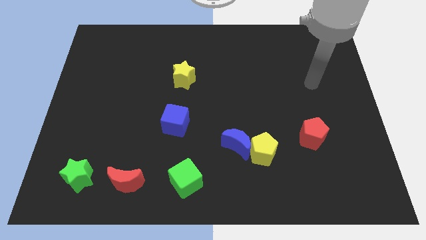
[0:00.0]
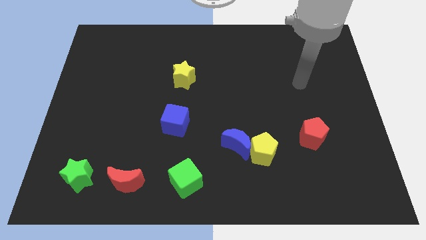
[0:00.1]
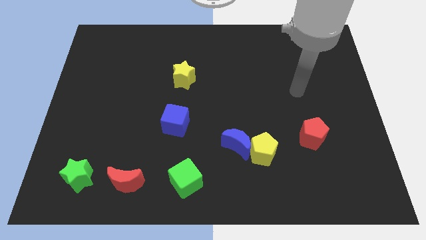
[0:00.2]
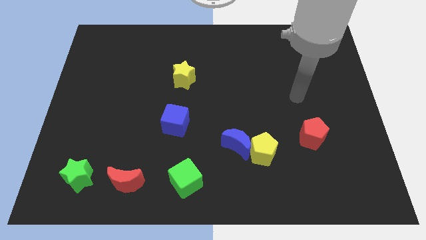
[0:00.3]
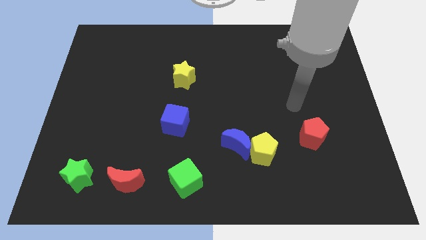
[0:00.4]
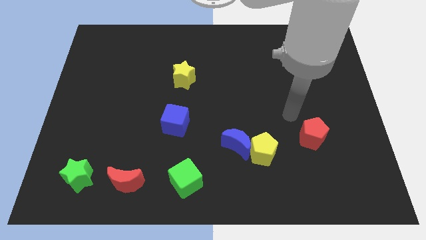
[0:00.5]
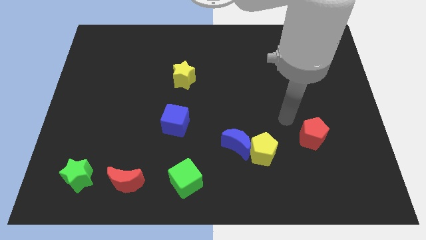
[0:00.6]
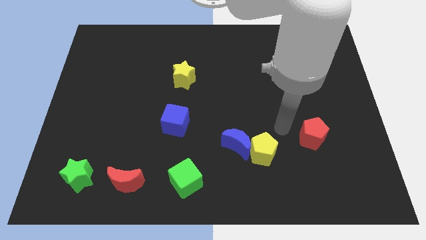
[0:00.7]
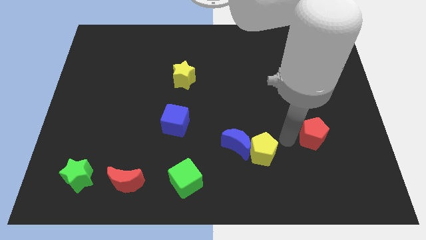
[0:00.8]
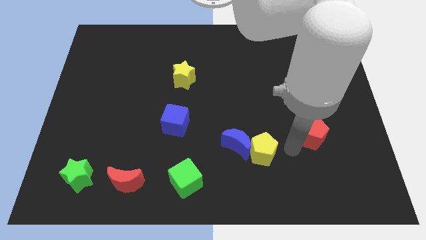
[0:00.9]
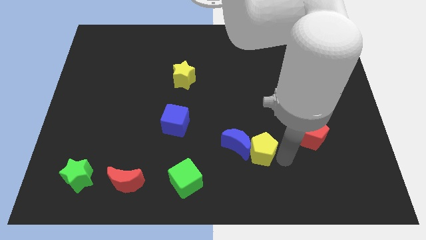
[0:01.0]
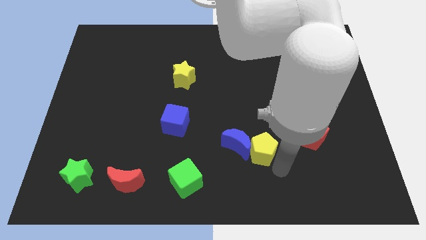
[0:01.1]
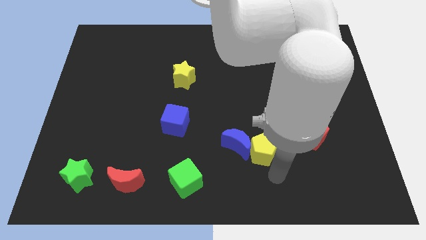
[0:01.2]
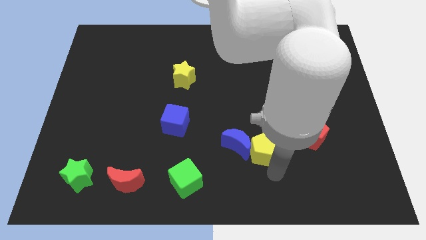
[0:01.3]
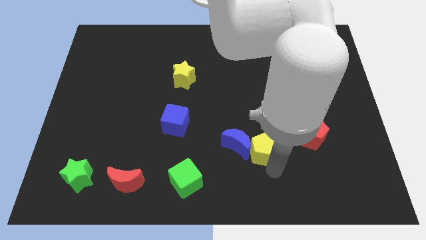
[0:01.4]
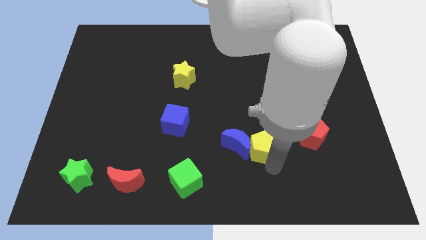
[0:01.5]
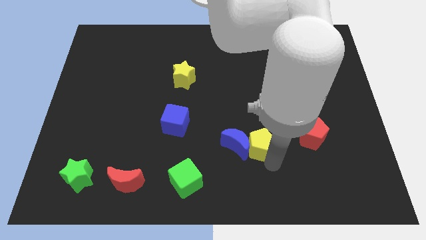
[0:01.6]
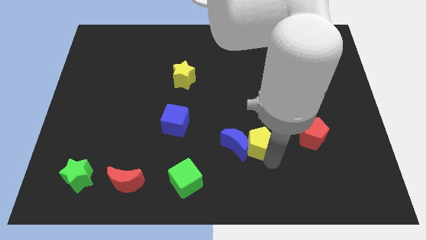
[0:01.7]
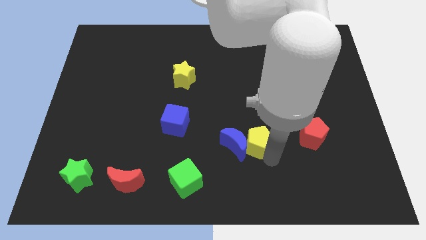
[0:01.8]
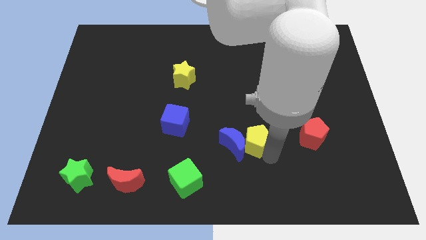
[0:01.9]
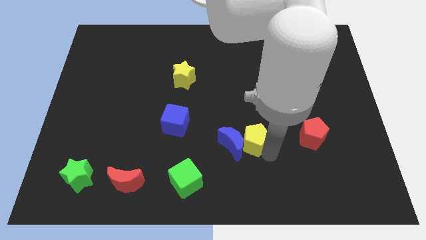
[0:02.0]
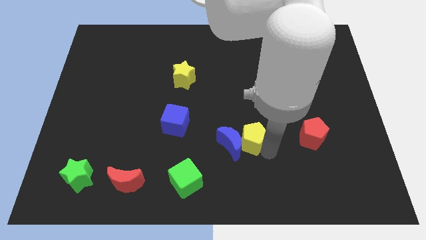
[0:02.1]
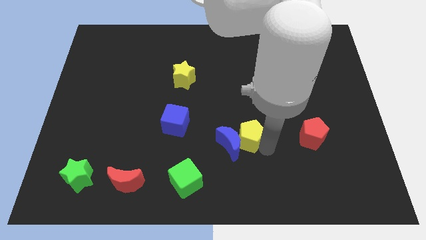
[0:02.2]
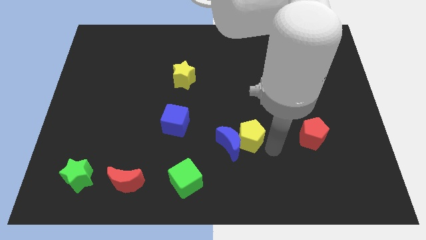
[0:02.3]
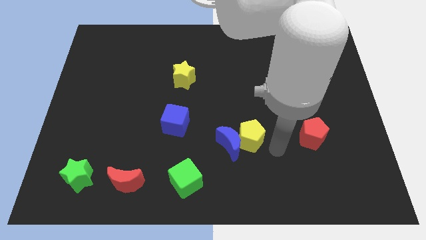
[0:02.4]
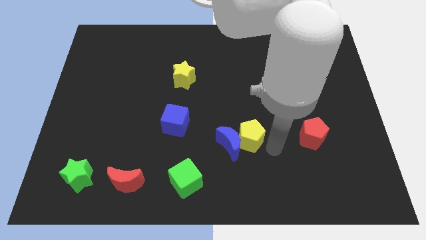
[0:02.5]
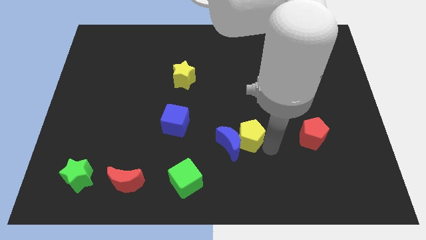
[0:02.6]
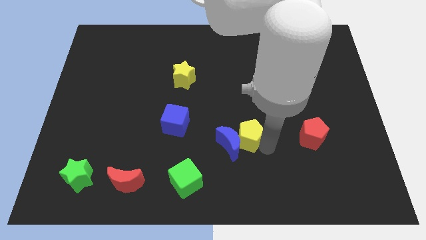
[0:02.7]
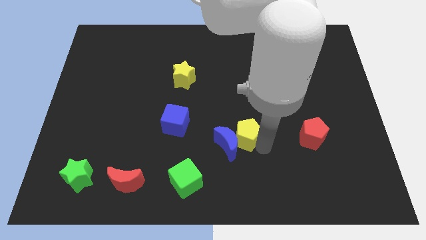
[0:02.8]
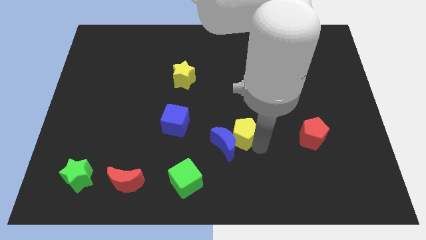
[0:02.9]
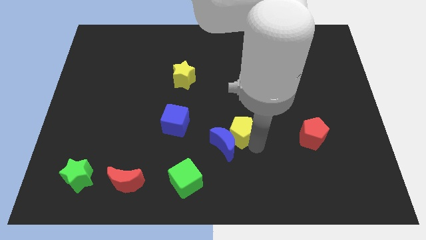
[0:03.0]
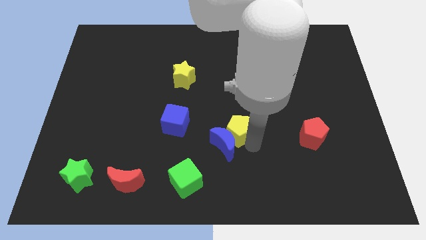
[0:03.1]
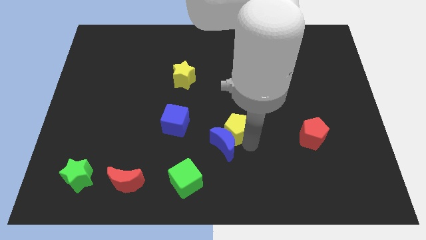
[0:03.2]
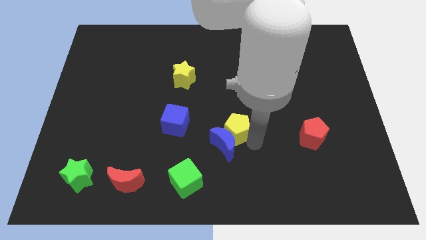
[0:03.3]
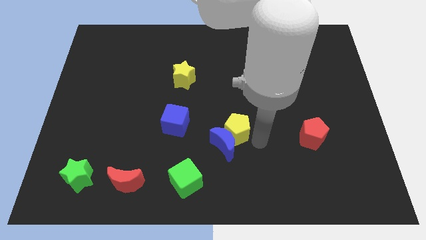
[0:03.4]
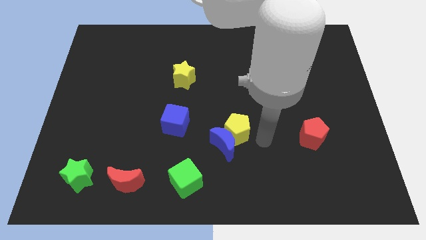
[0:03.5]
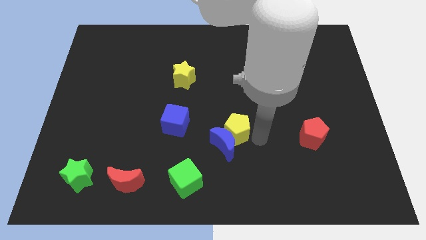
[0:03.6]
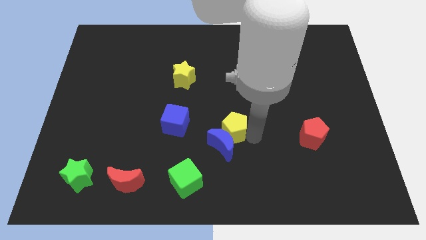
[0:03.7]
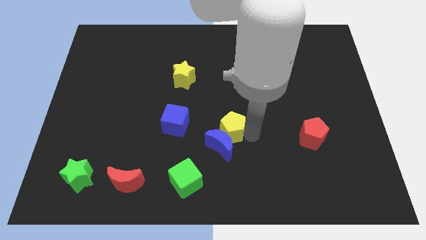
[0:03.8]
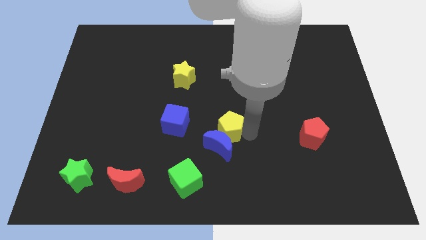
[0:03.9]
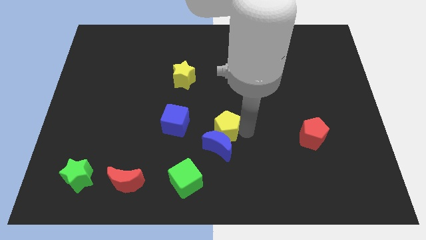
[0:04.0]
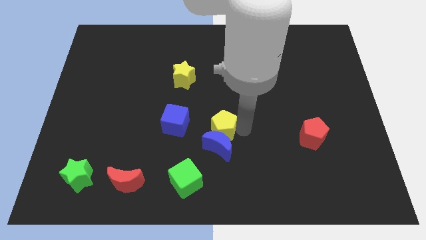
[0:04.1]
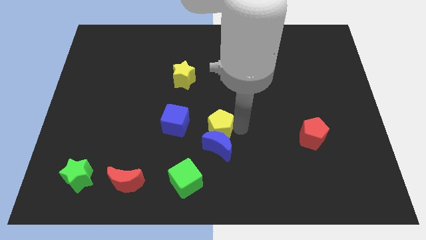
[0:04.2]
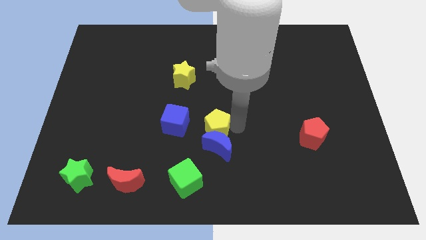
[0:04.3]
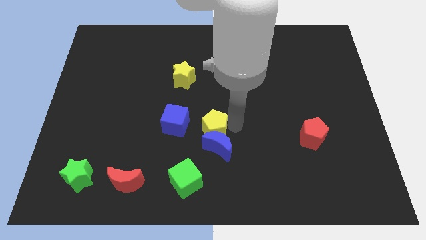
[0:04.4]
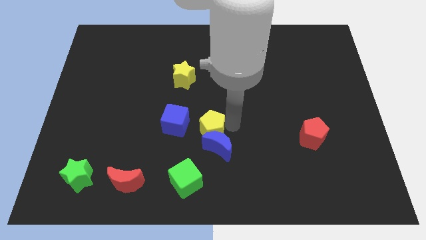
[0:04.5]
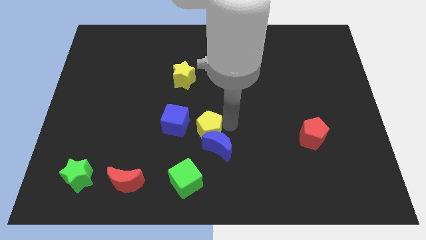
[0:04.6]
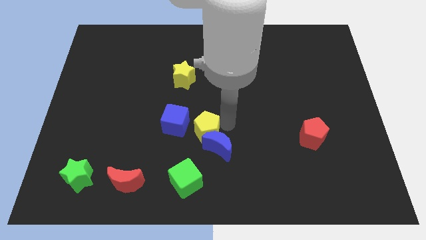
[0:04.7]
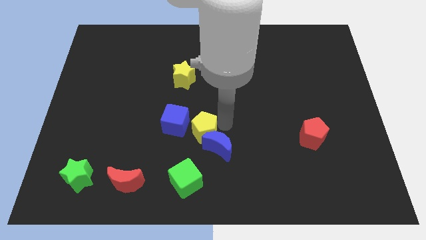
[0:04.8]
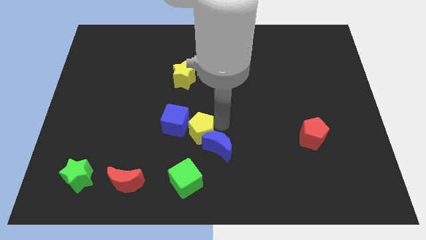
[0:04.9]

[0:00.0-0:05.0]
push the yellow pentagon close to the blue cube

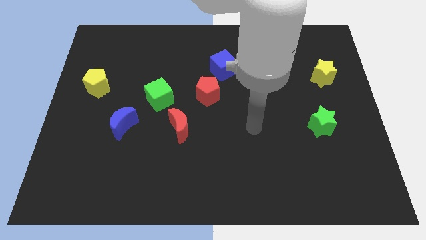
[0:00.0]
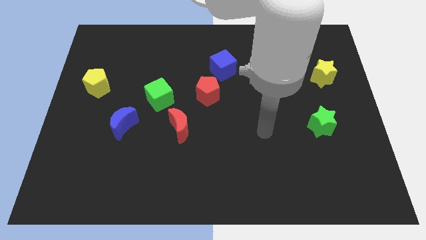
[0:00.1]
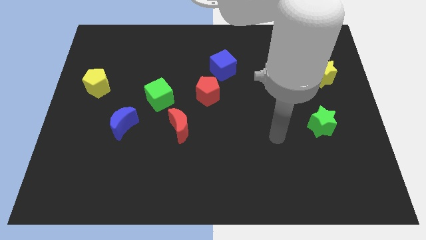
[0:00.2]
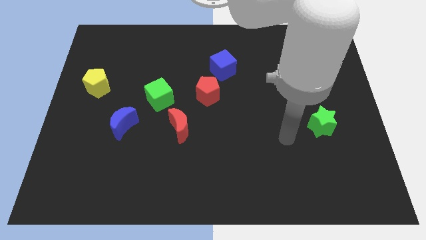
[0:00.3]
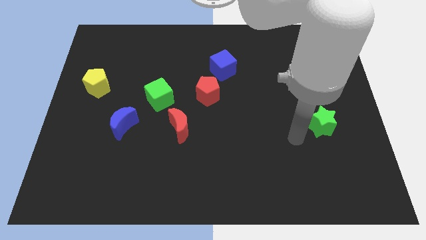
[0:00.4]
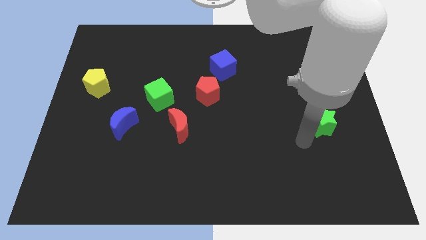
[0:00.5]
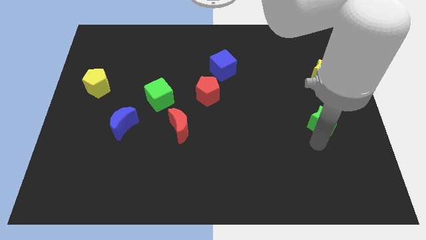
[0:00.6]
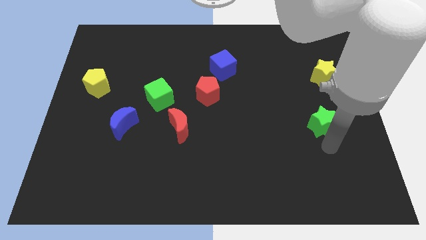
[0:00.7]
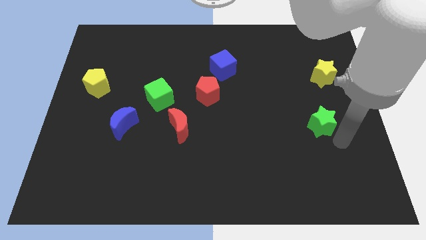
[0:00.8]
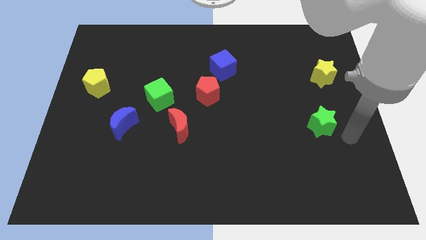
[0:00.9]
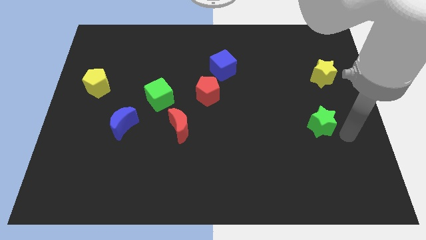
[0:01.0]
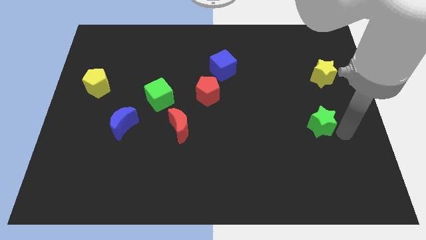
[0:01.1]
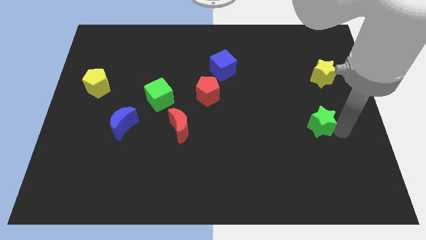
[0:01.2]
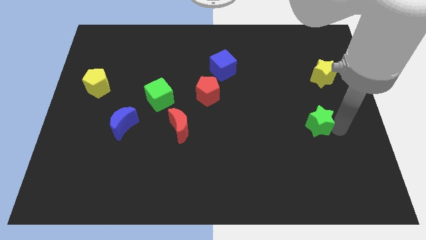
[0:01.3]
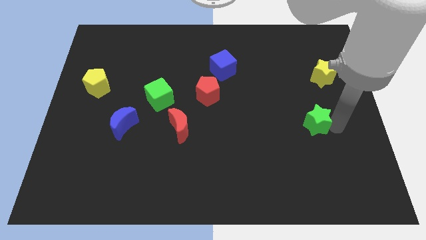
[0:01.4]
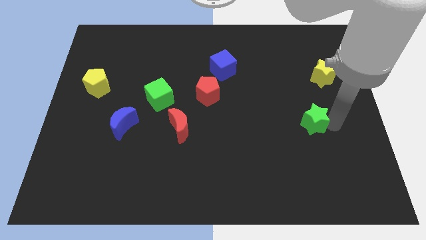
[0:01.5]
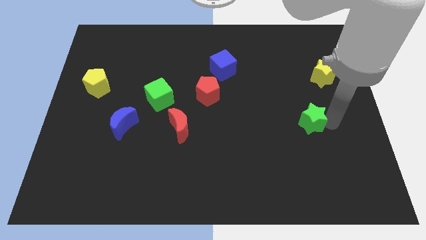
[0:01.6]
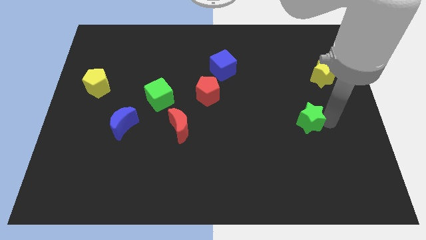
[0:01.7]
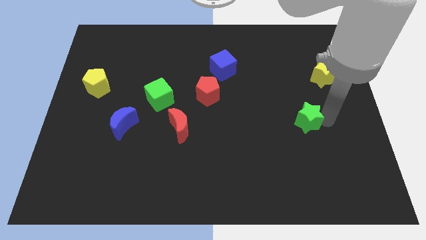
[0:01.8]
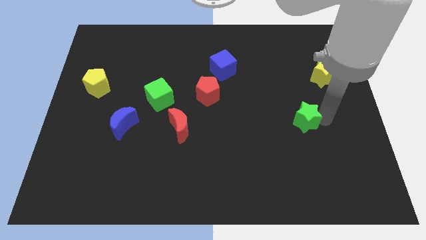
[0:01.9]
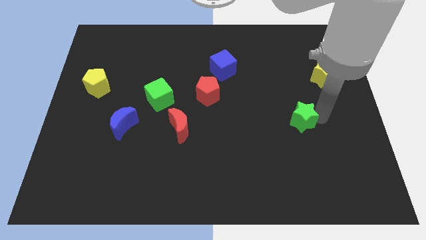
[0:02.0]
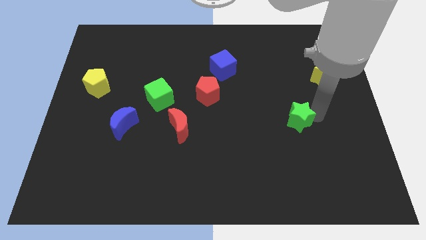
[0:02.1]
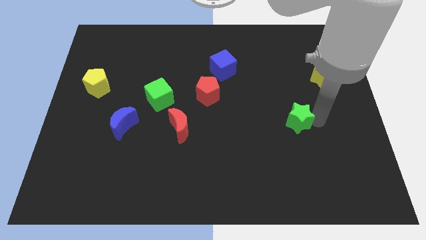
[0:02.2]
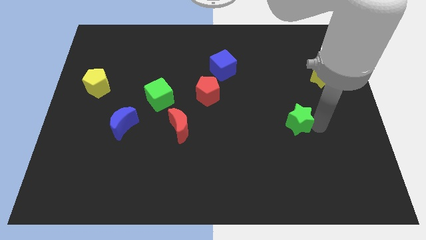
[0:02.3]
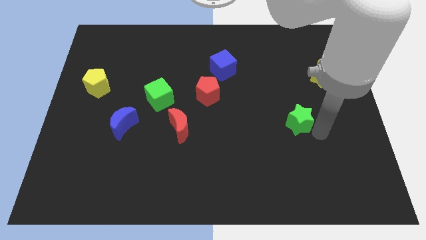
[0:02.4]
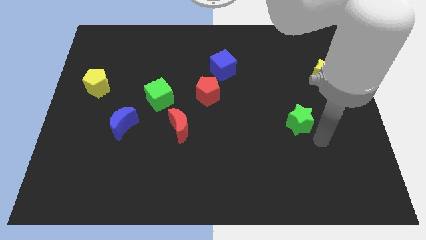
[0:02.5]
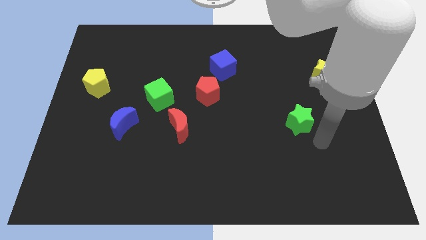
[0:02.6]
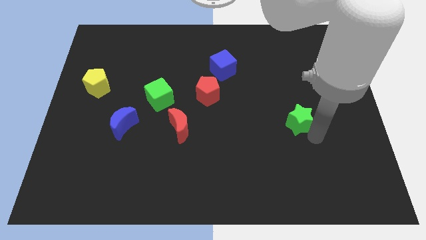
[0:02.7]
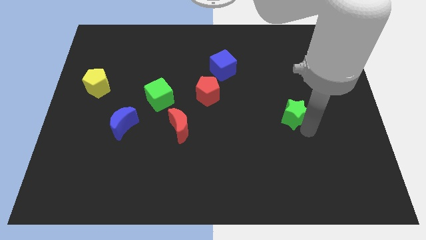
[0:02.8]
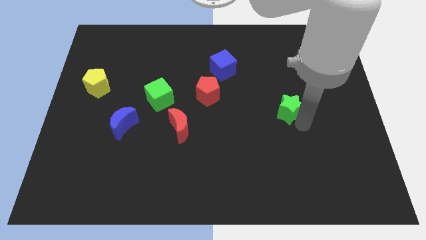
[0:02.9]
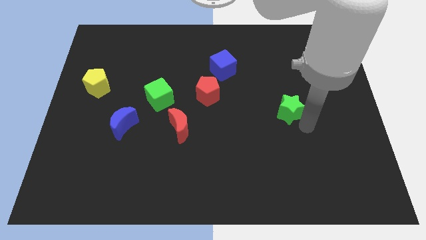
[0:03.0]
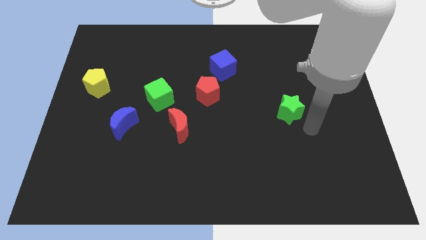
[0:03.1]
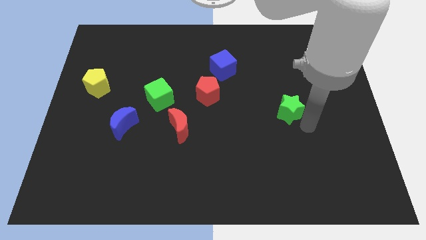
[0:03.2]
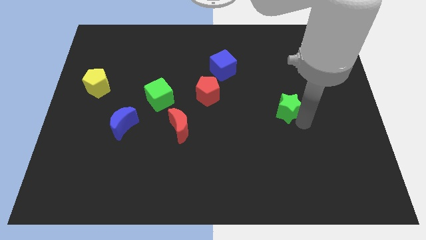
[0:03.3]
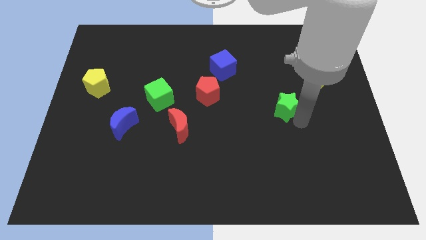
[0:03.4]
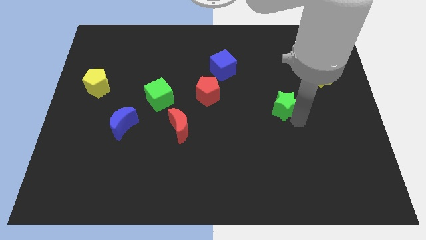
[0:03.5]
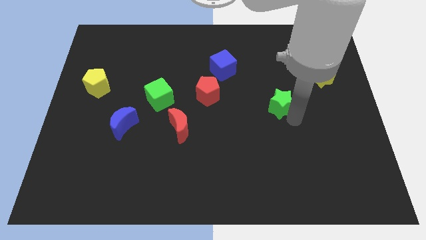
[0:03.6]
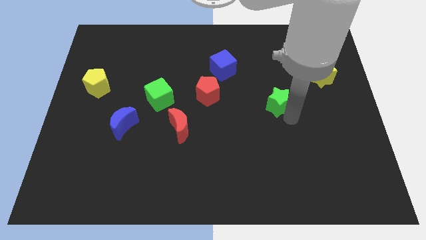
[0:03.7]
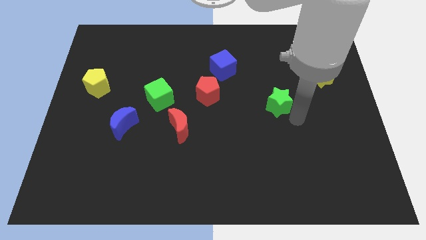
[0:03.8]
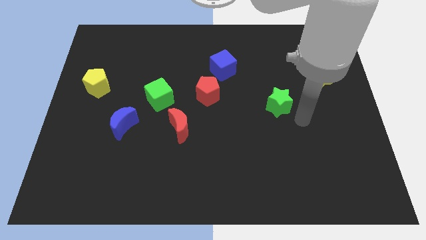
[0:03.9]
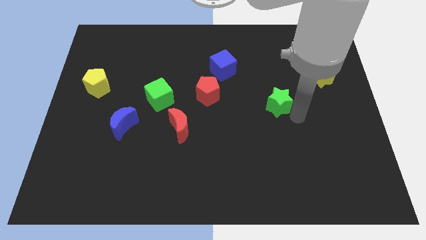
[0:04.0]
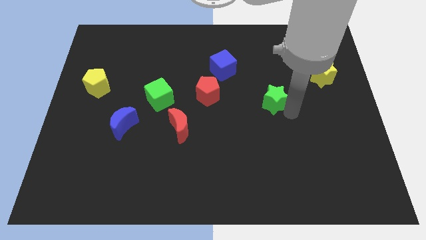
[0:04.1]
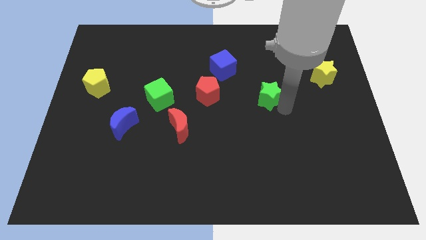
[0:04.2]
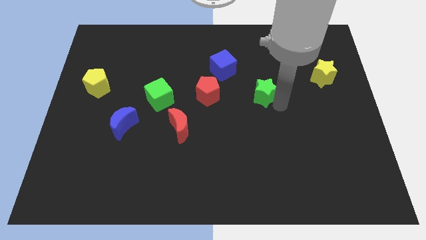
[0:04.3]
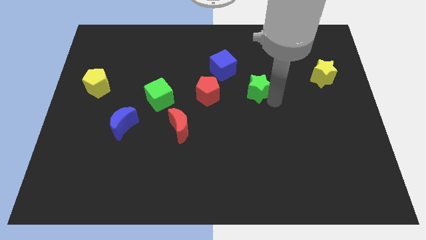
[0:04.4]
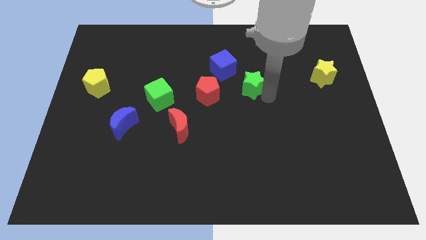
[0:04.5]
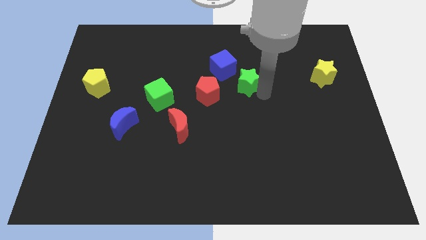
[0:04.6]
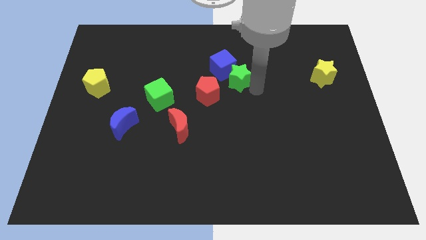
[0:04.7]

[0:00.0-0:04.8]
push the green star to the blue cube
